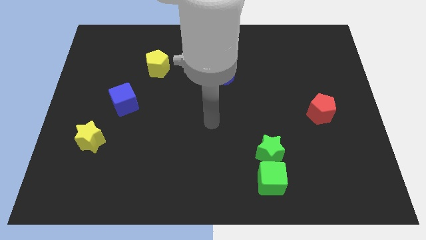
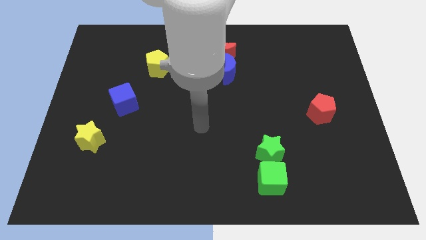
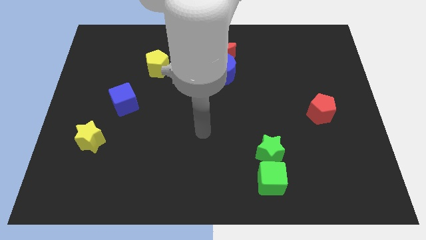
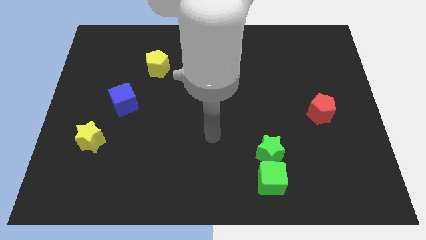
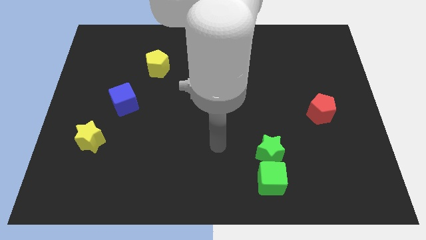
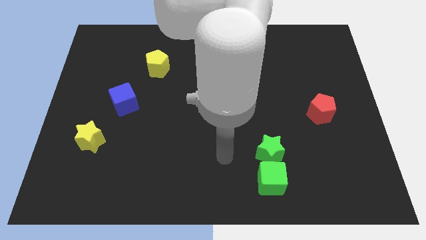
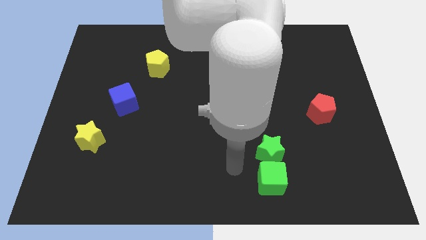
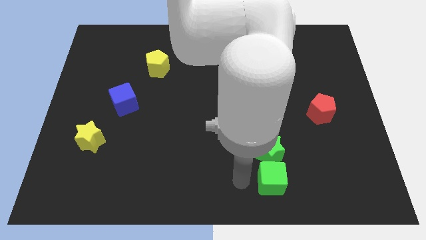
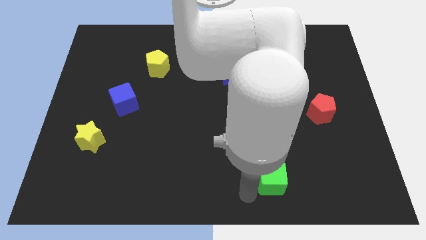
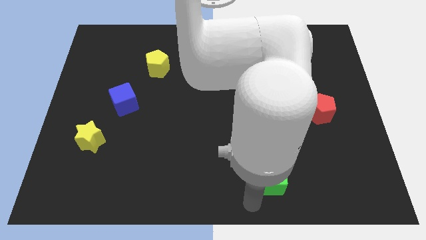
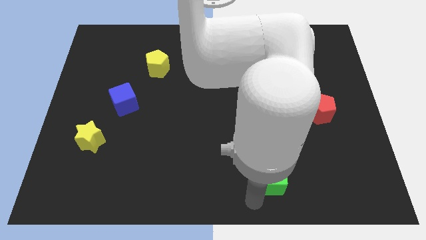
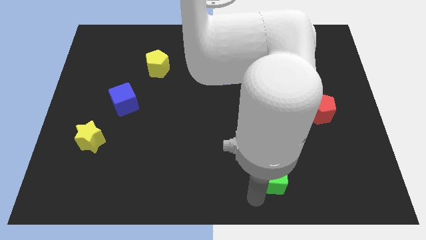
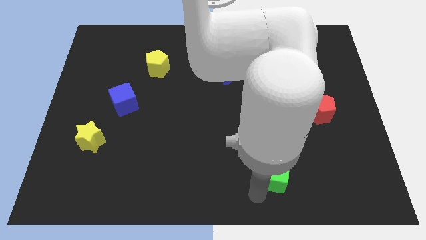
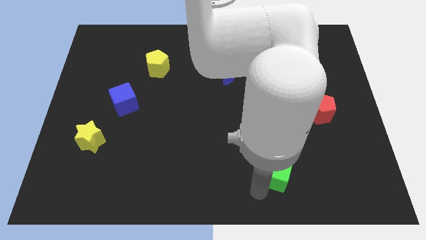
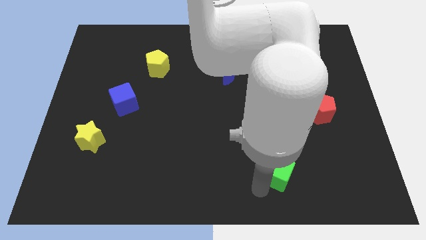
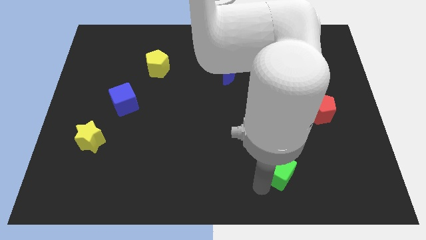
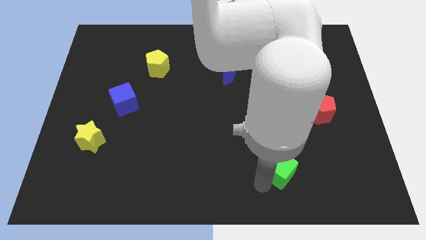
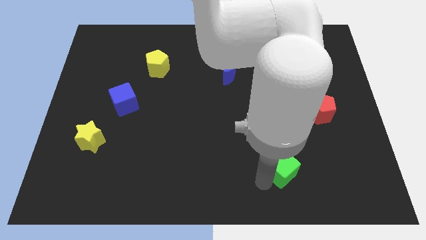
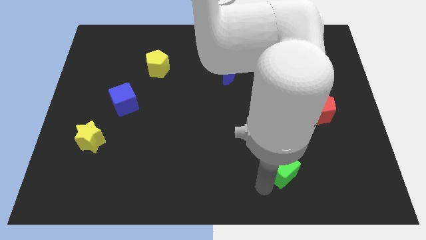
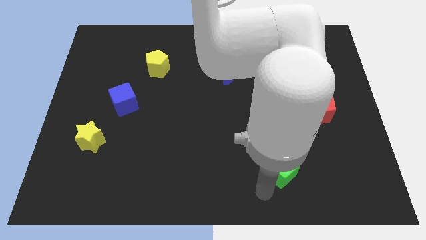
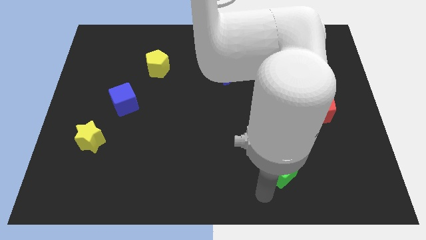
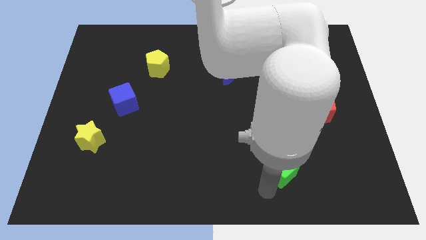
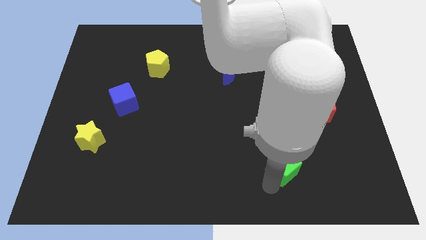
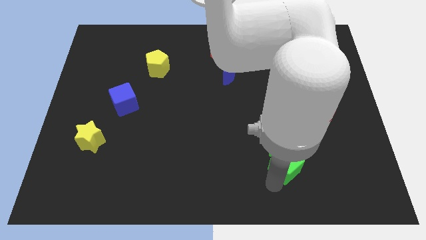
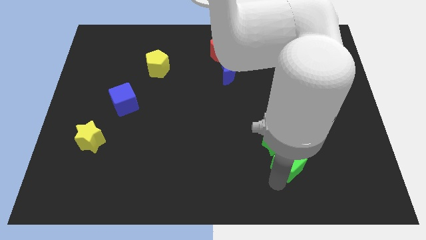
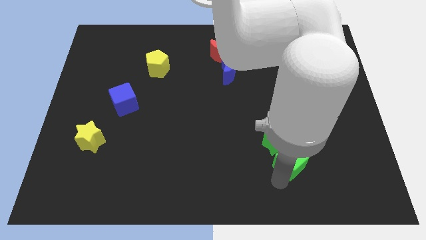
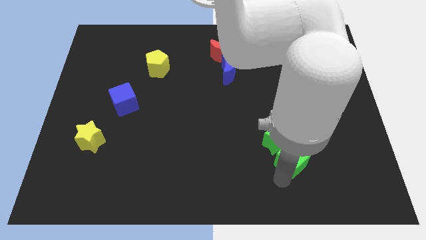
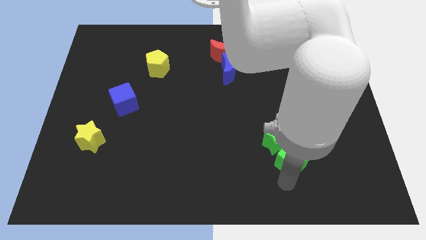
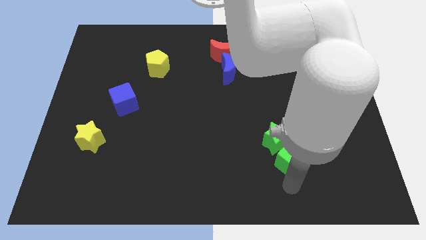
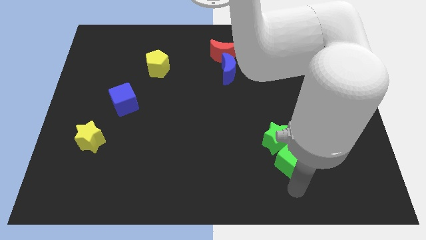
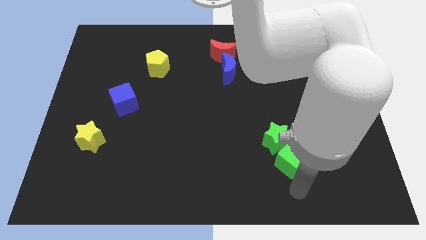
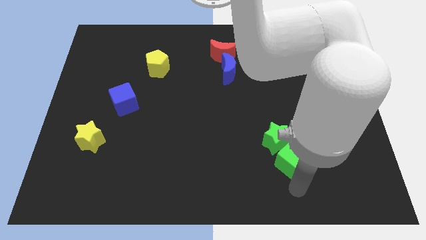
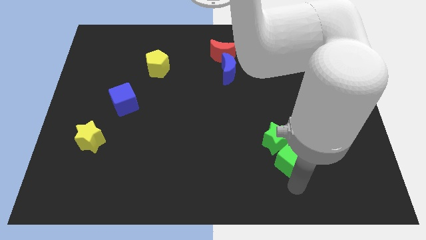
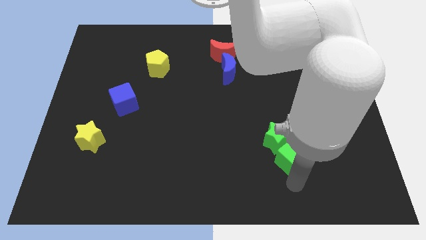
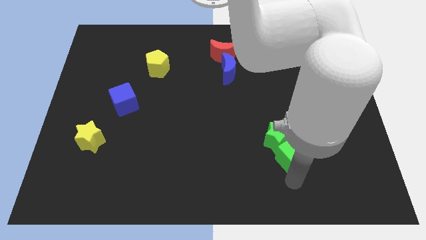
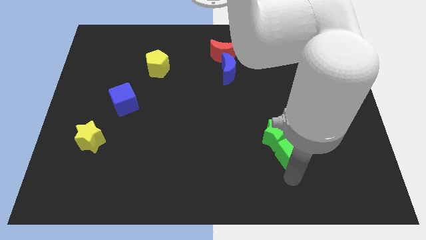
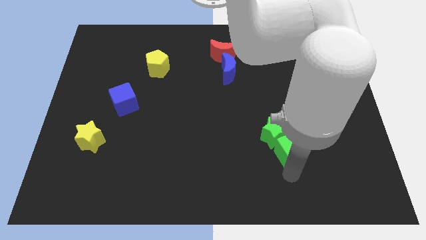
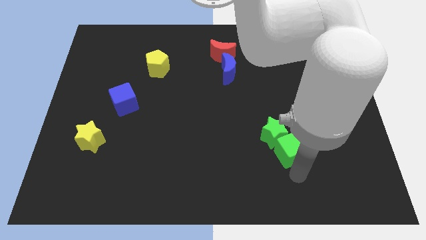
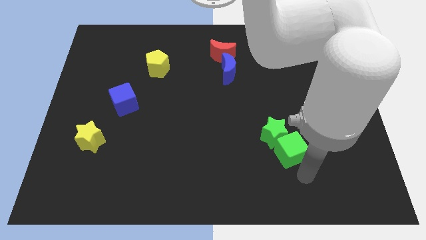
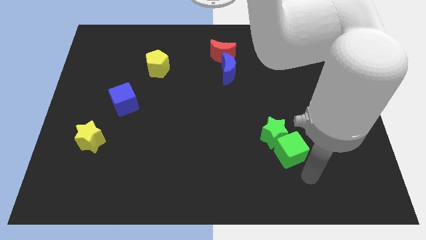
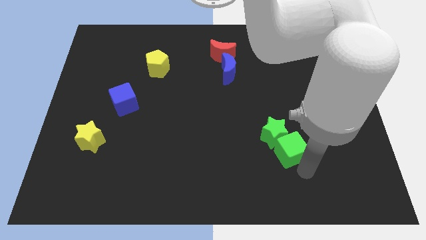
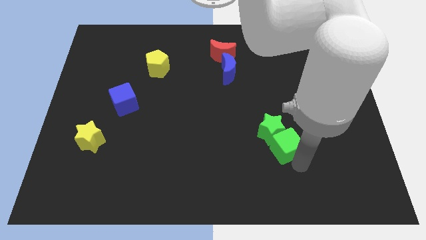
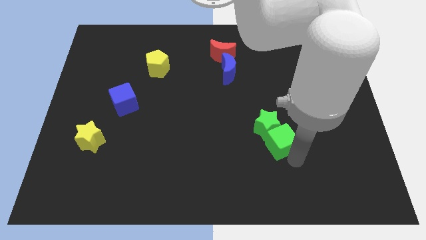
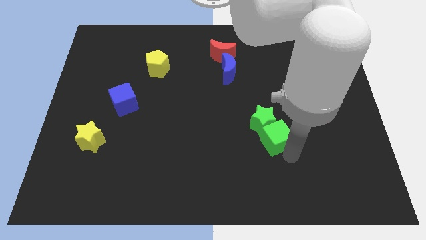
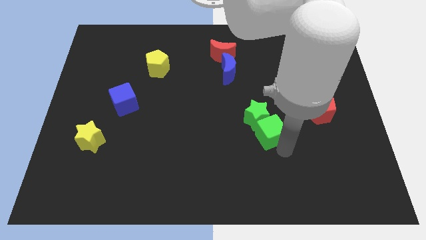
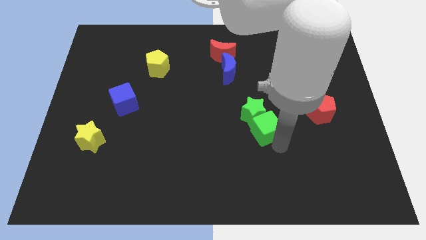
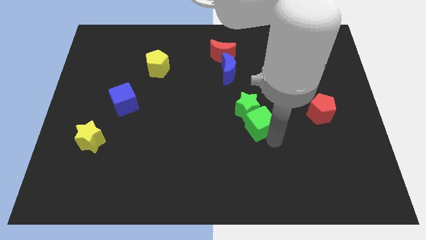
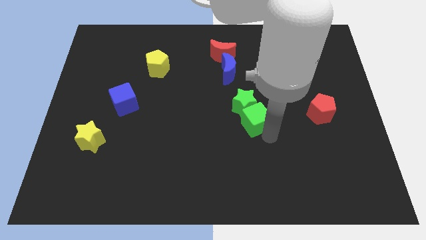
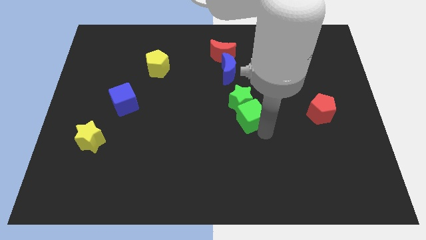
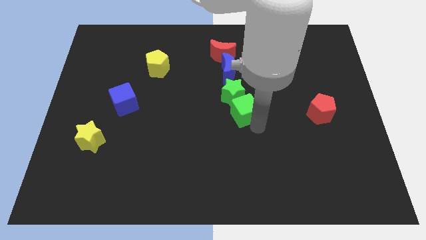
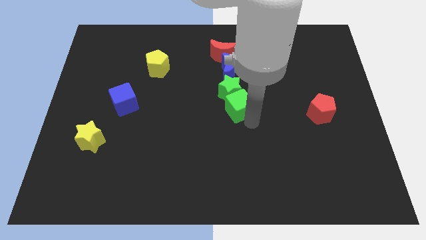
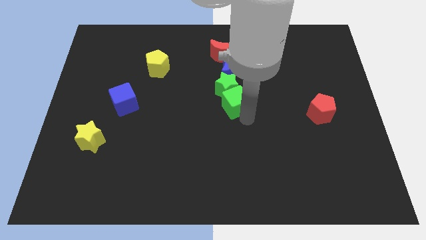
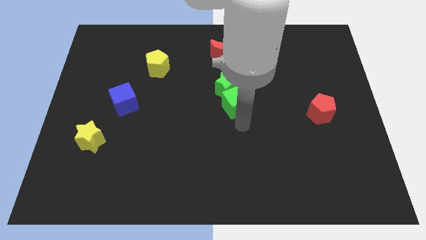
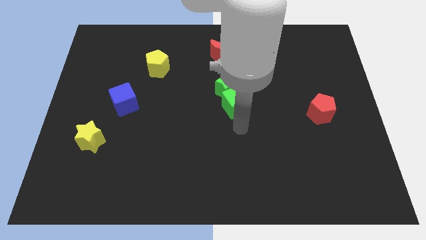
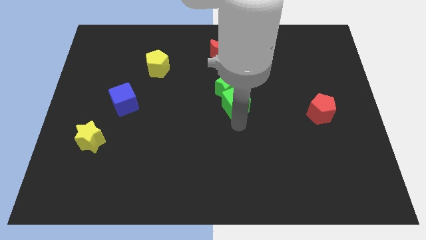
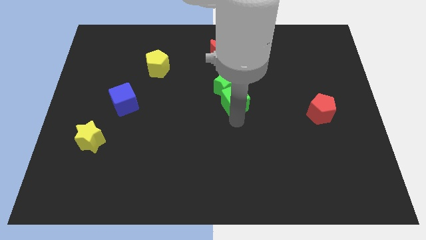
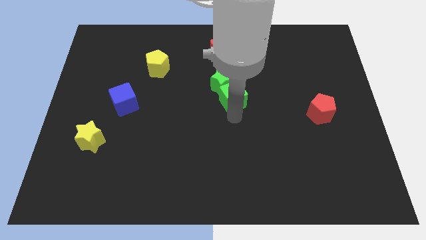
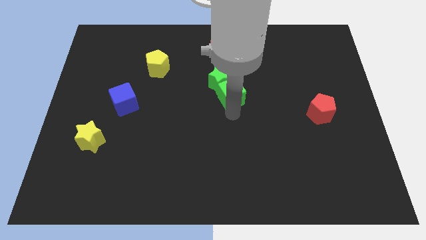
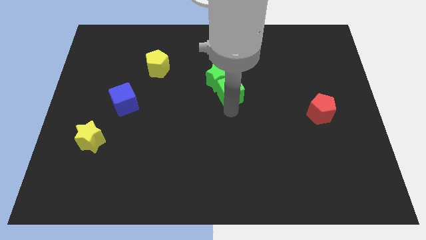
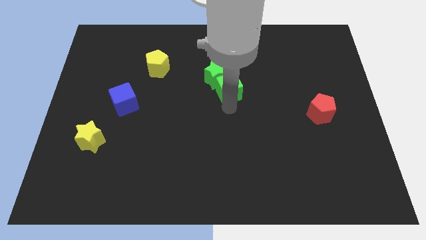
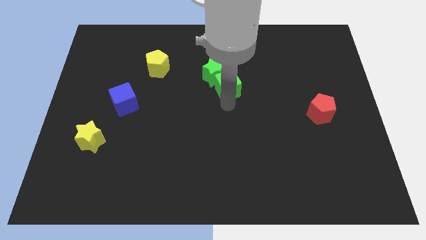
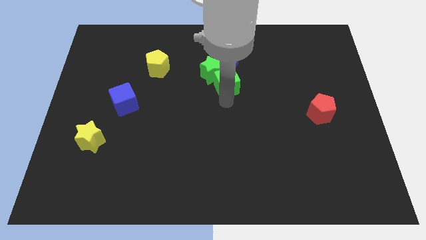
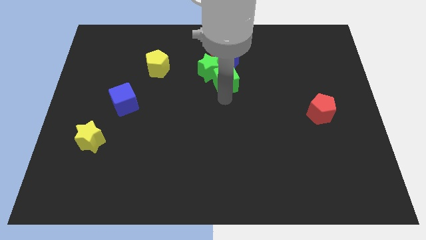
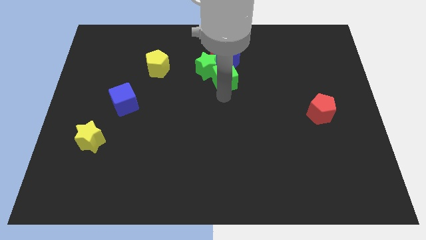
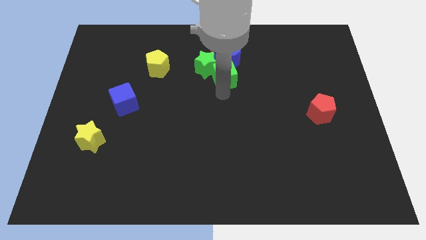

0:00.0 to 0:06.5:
put the green cube to the blue moon

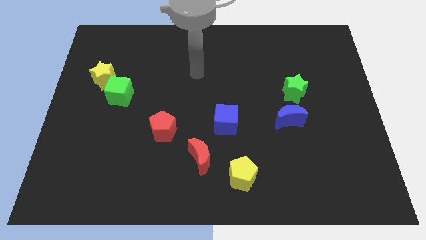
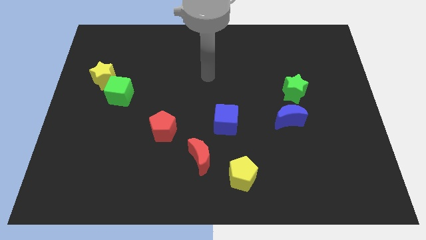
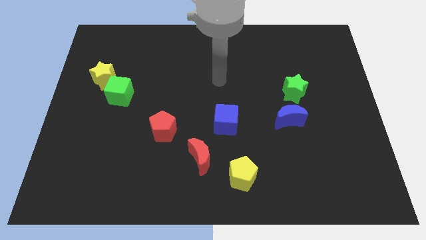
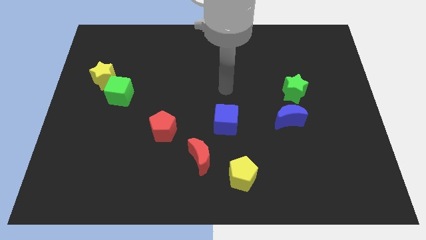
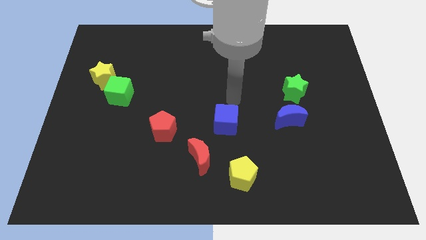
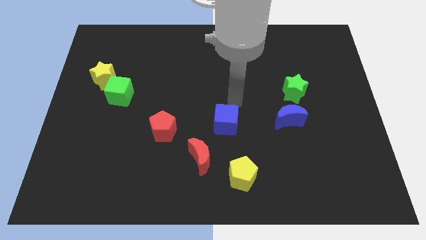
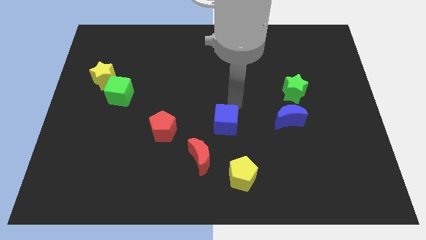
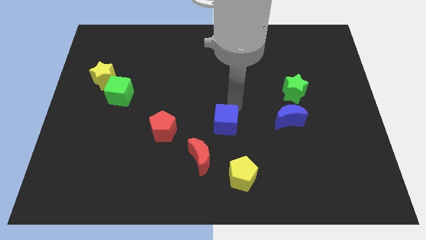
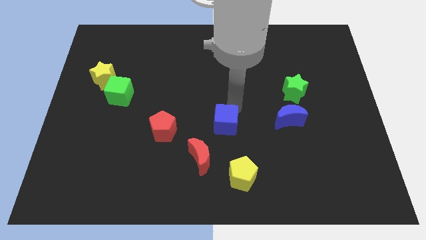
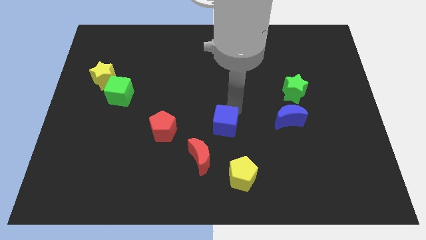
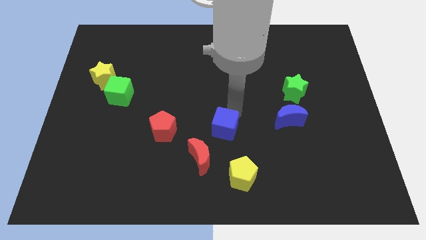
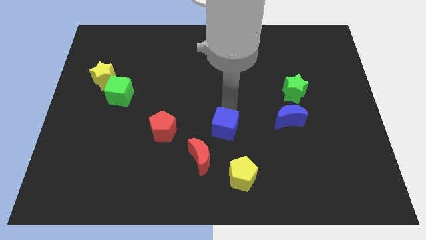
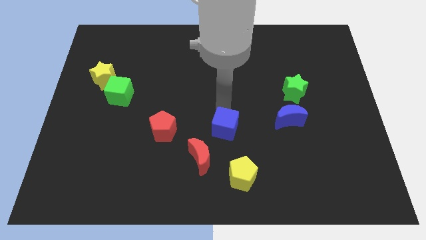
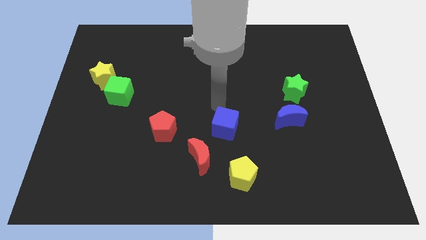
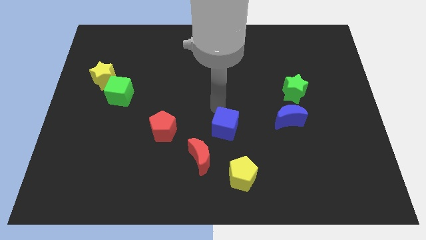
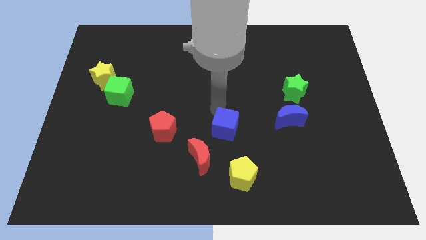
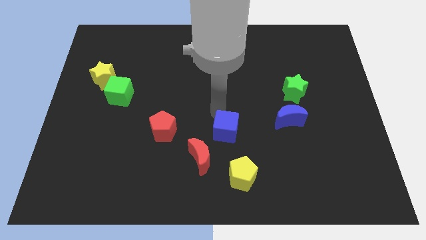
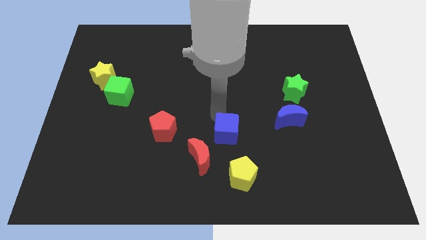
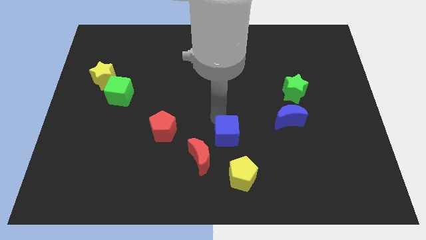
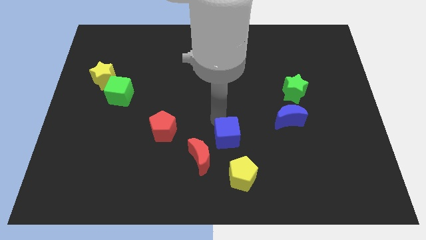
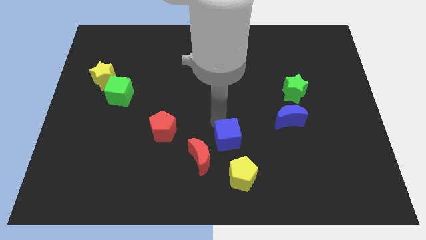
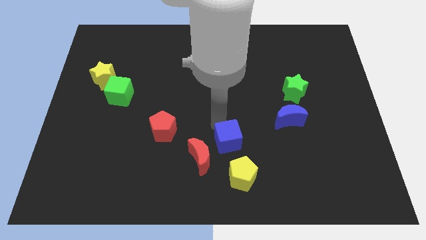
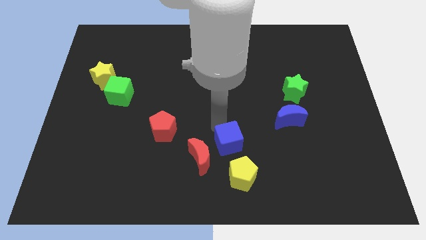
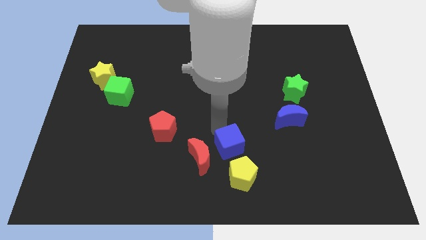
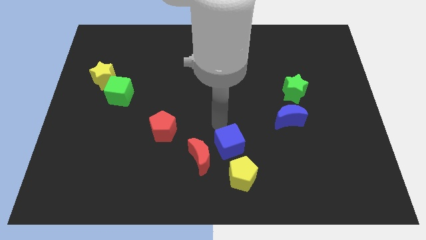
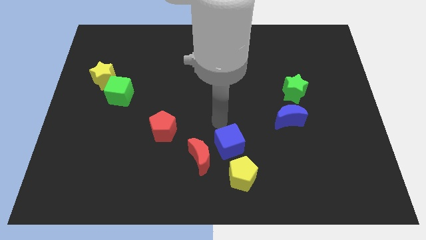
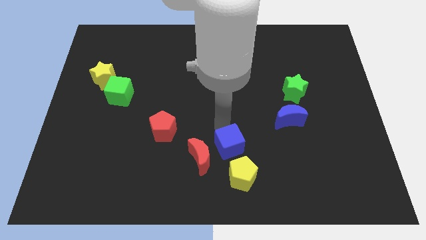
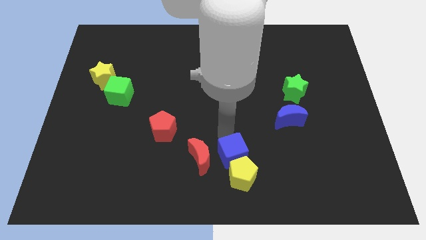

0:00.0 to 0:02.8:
slide the blue cube next to the yellow pentagon
